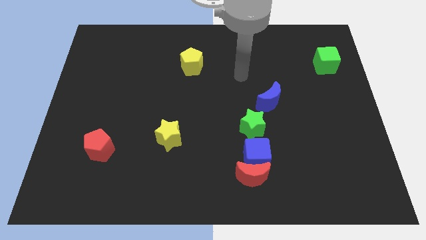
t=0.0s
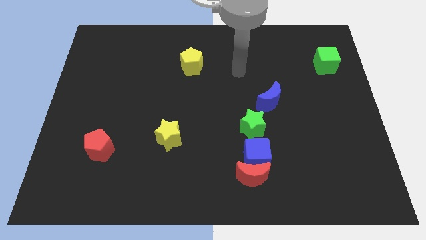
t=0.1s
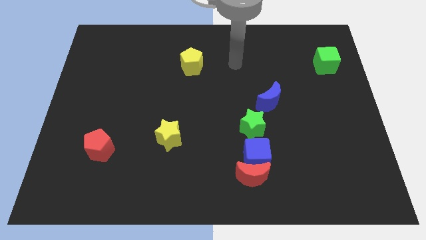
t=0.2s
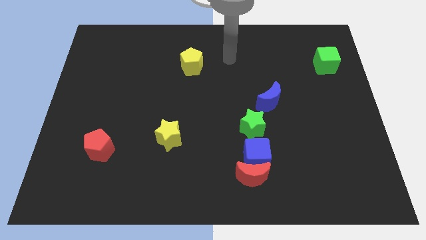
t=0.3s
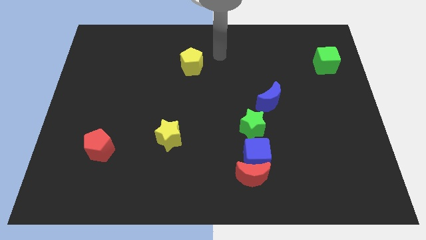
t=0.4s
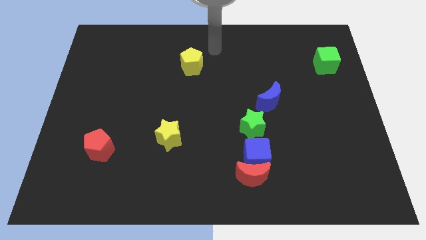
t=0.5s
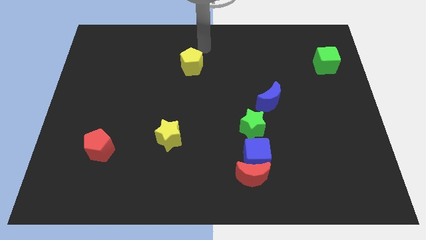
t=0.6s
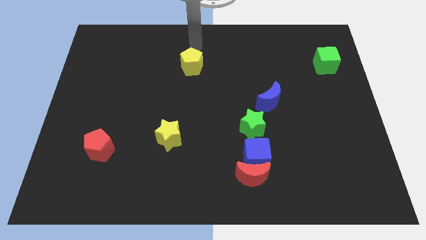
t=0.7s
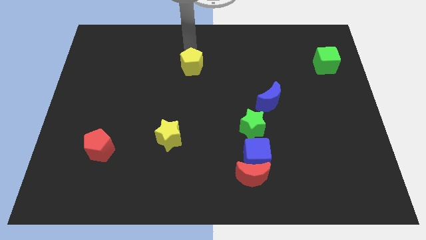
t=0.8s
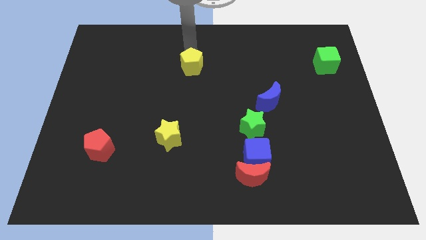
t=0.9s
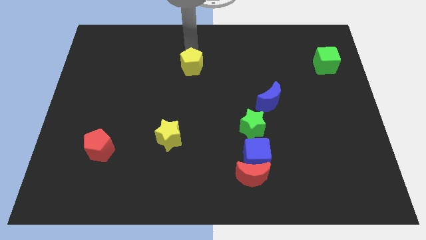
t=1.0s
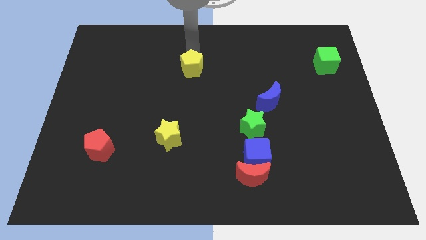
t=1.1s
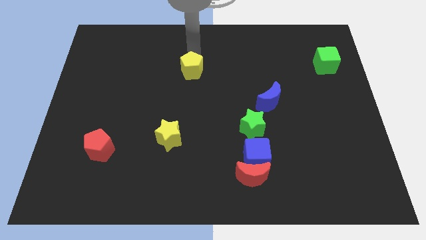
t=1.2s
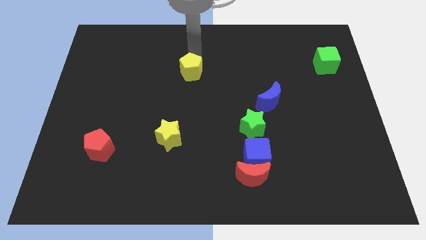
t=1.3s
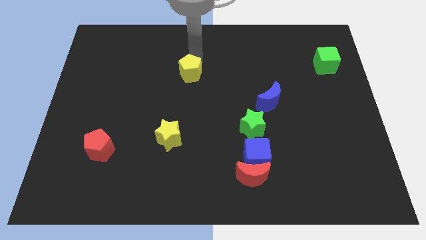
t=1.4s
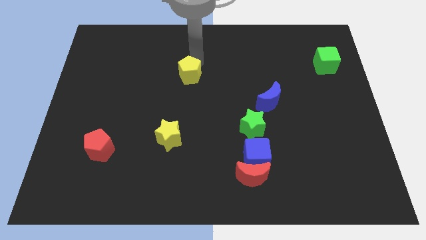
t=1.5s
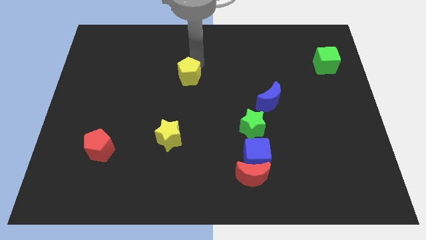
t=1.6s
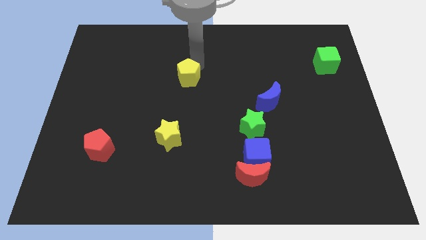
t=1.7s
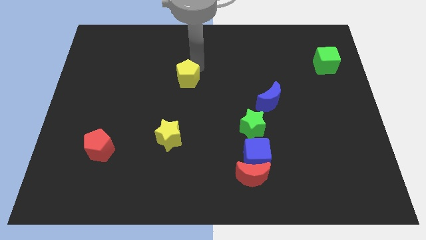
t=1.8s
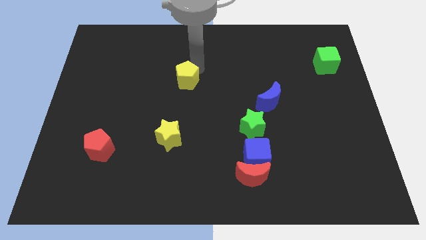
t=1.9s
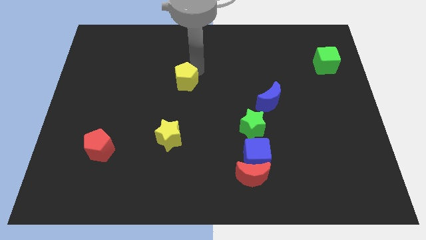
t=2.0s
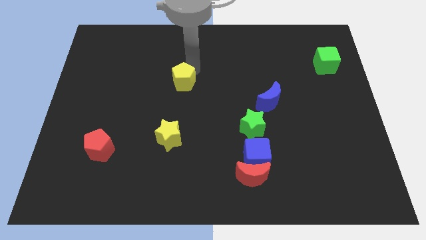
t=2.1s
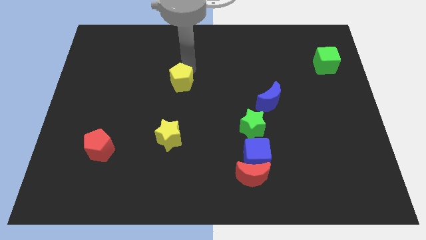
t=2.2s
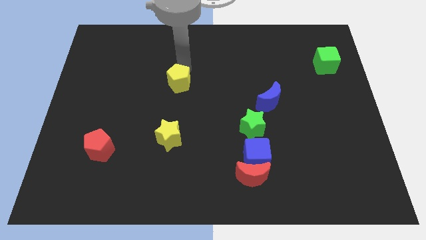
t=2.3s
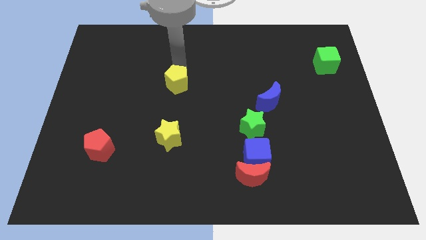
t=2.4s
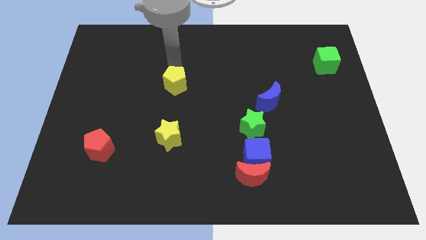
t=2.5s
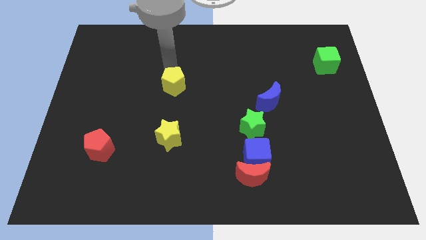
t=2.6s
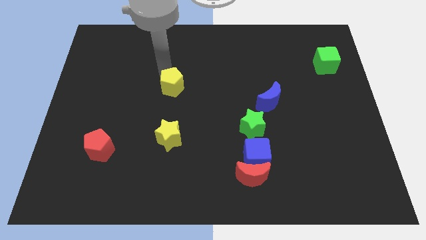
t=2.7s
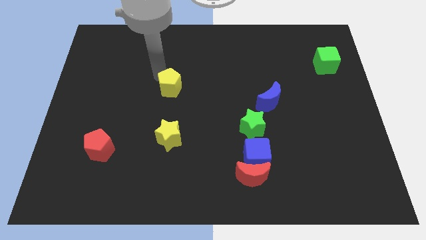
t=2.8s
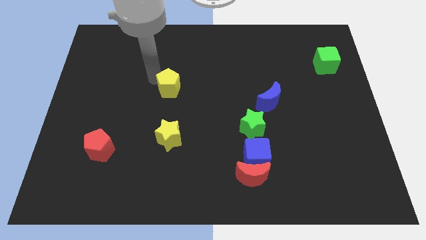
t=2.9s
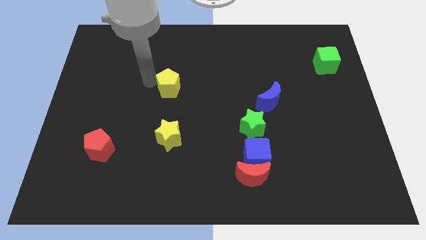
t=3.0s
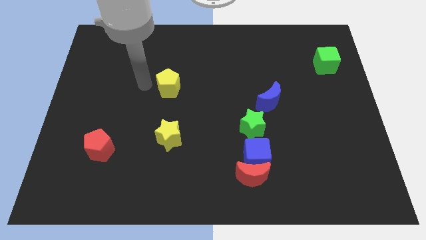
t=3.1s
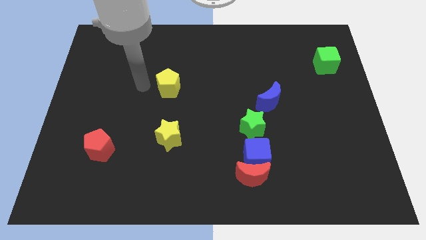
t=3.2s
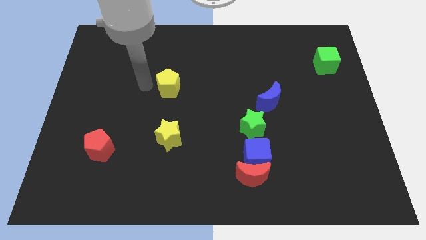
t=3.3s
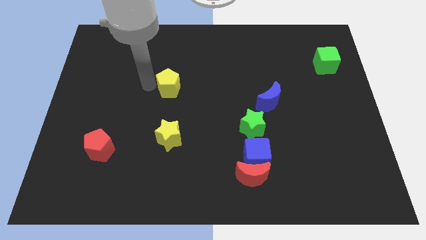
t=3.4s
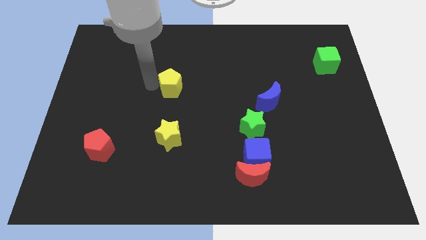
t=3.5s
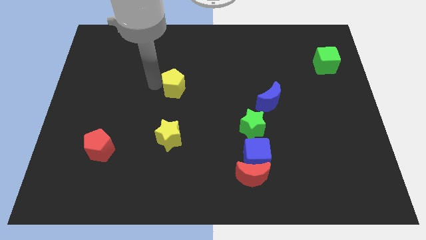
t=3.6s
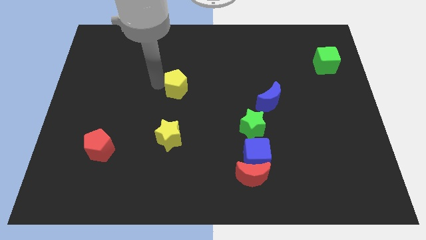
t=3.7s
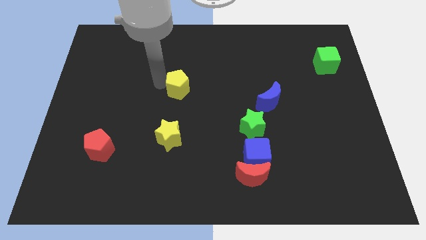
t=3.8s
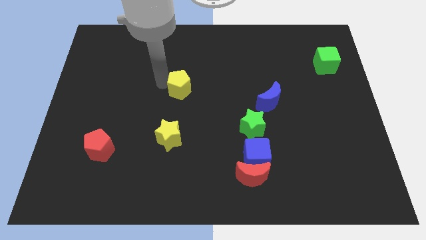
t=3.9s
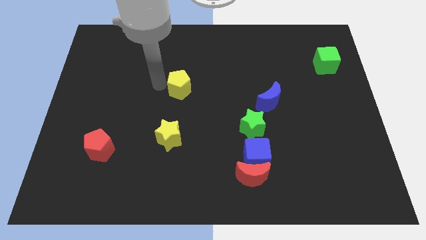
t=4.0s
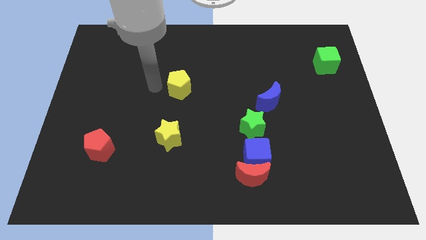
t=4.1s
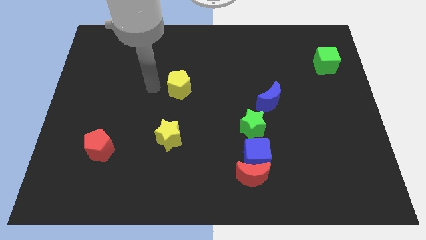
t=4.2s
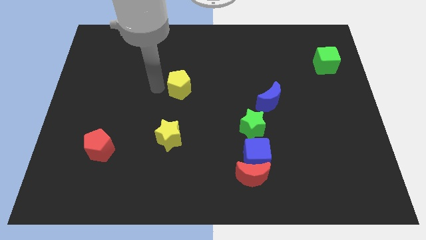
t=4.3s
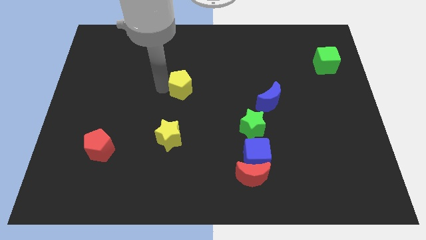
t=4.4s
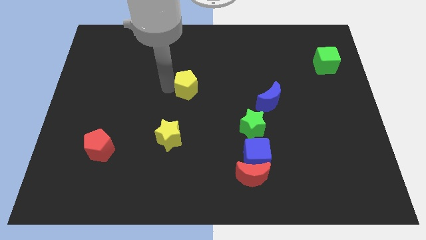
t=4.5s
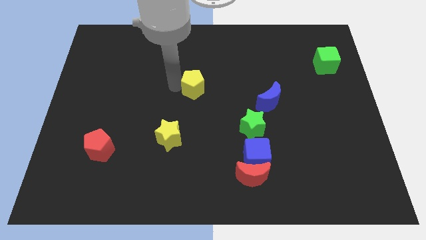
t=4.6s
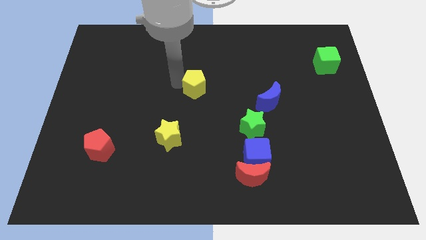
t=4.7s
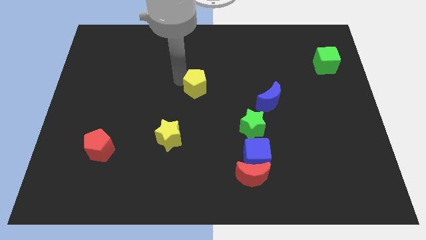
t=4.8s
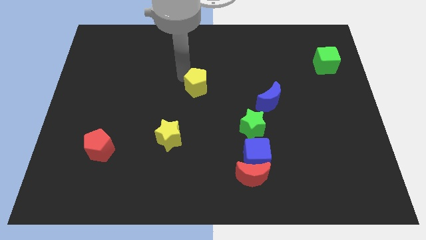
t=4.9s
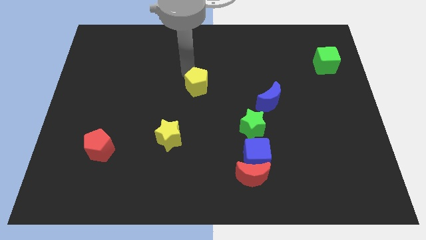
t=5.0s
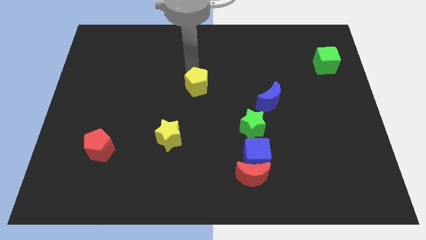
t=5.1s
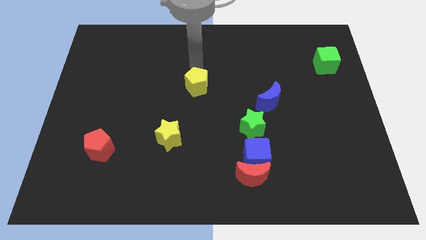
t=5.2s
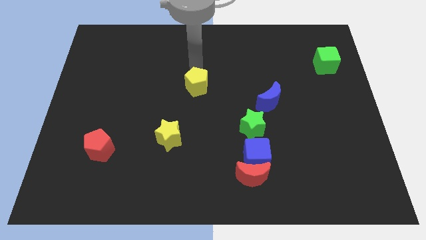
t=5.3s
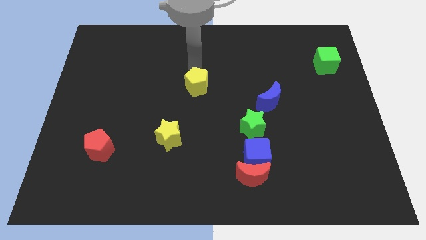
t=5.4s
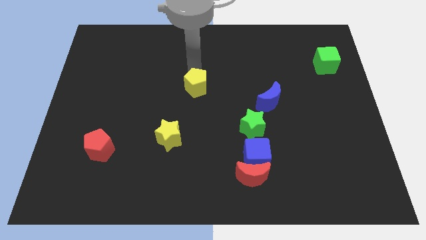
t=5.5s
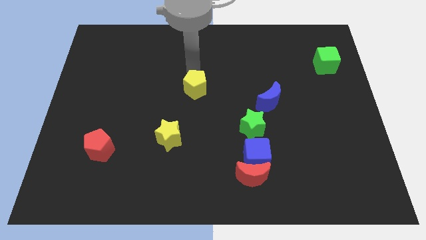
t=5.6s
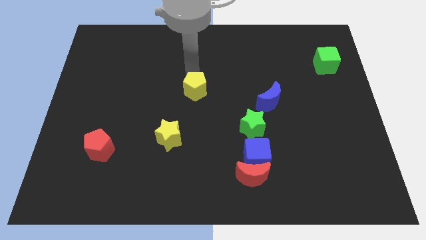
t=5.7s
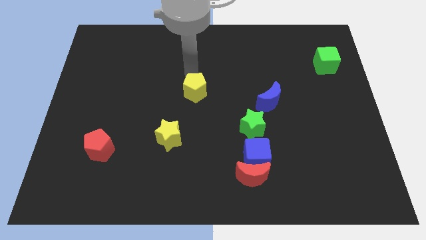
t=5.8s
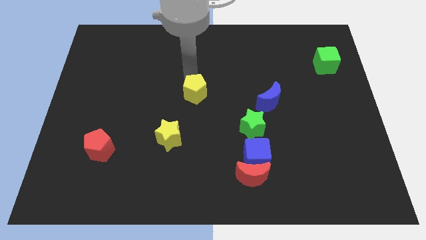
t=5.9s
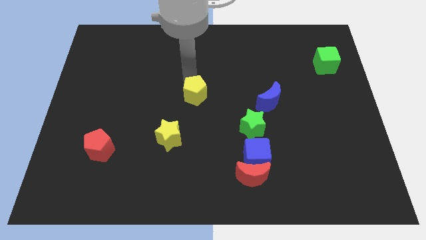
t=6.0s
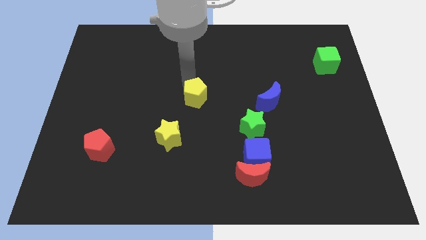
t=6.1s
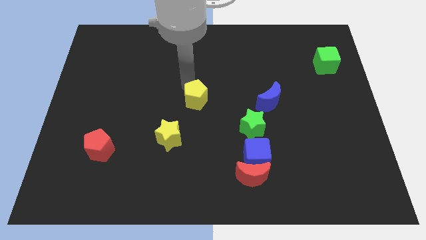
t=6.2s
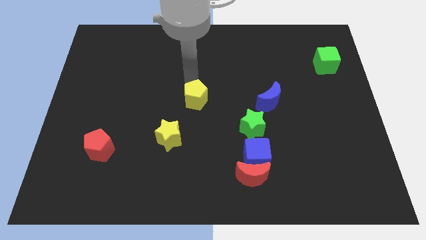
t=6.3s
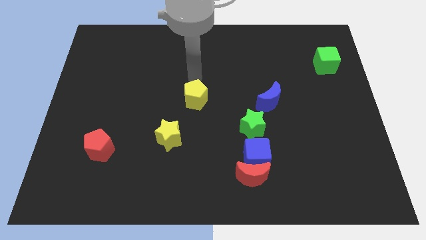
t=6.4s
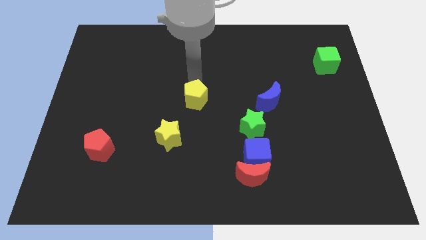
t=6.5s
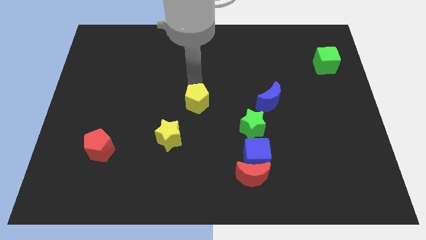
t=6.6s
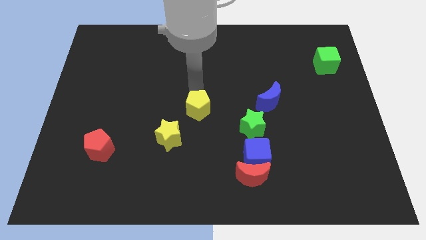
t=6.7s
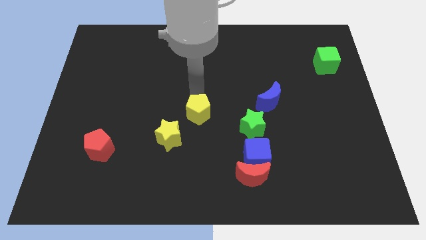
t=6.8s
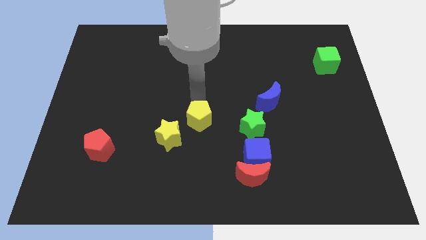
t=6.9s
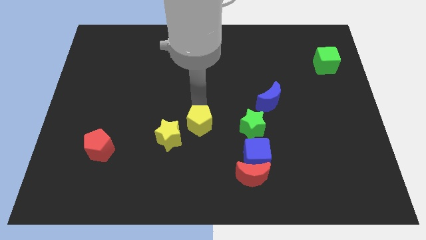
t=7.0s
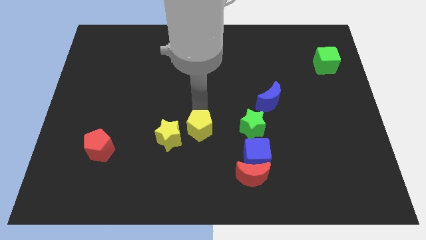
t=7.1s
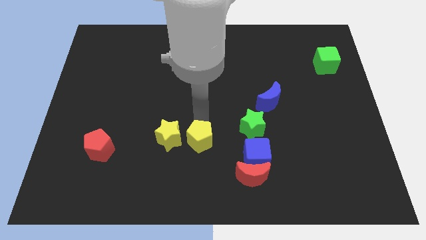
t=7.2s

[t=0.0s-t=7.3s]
push the yellow pentagon down

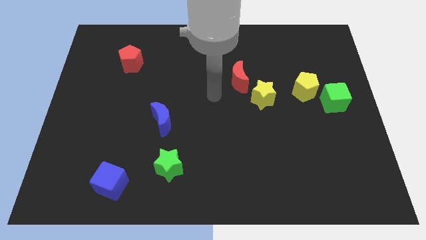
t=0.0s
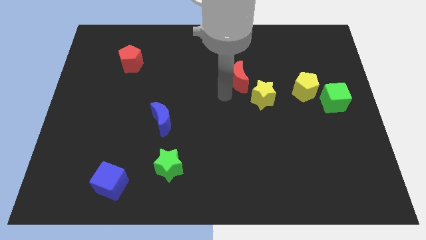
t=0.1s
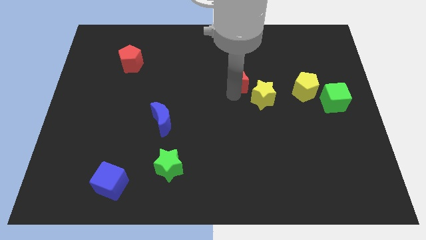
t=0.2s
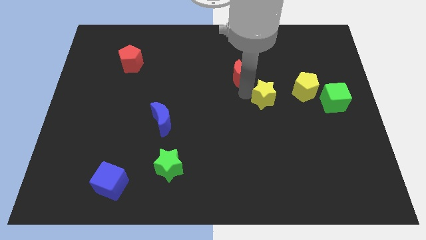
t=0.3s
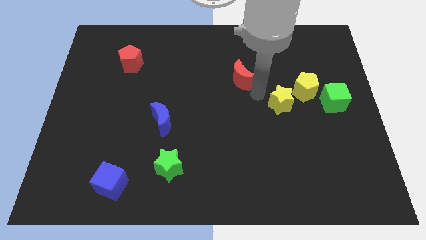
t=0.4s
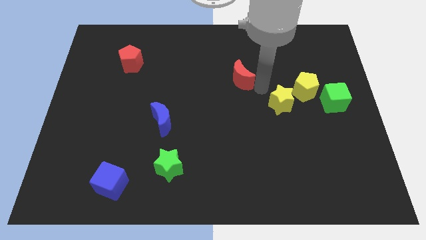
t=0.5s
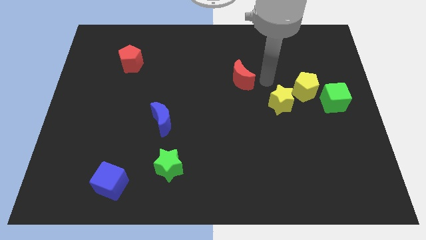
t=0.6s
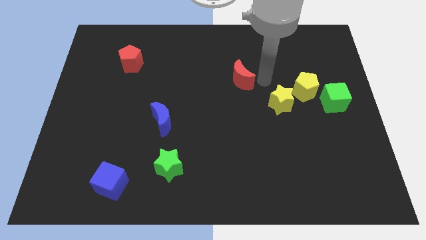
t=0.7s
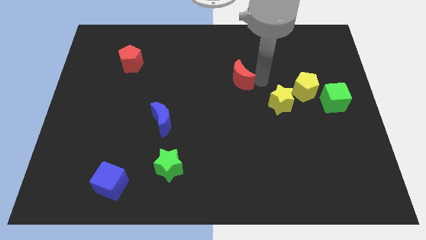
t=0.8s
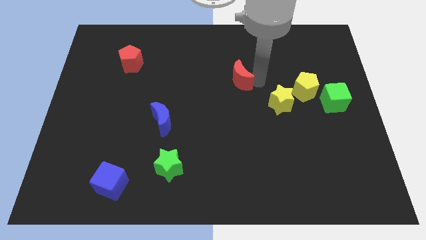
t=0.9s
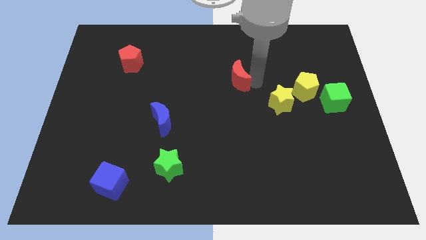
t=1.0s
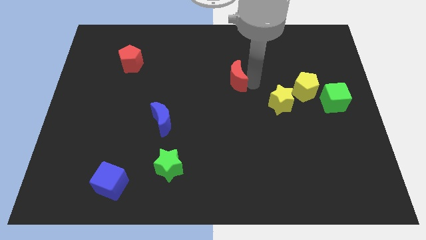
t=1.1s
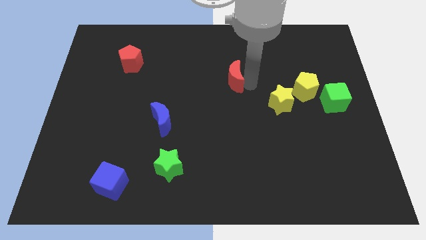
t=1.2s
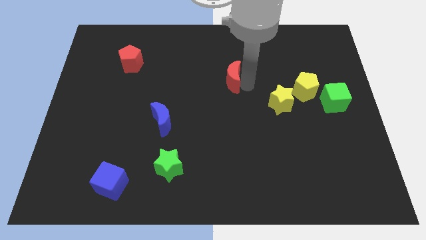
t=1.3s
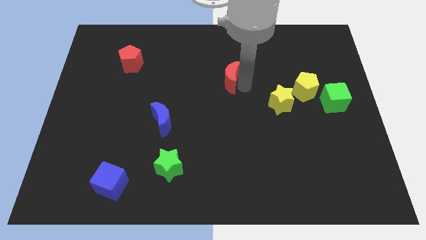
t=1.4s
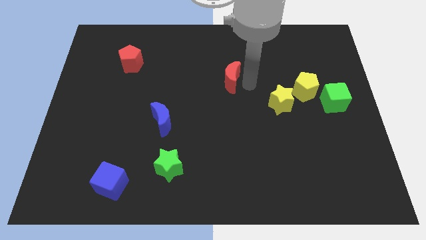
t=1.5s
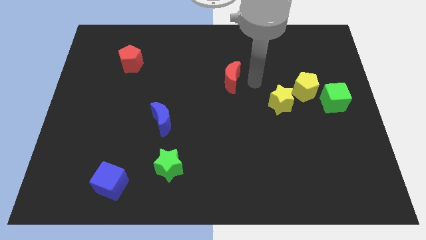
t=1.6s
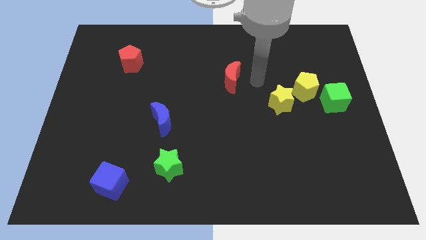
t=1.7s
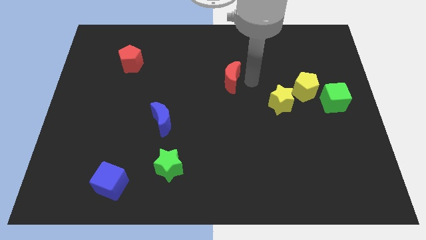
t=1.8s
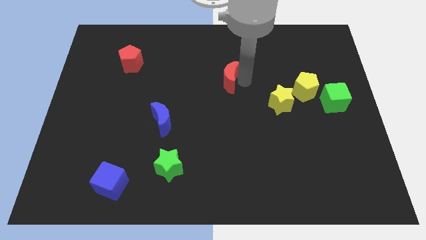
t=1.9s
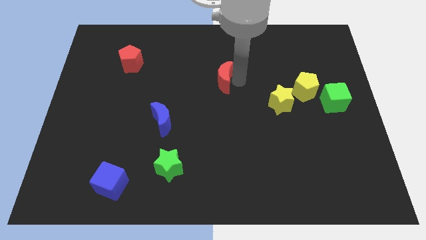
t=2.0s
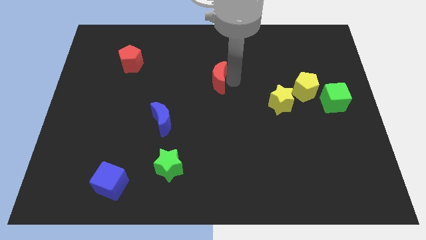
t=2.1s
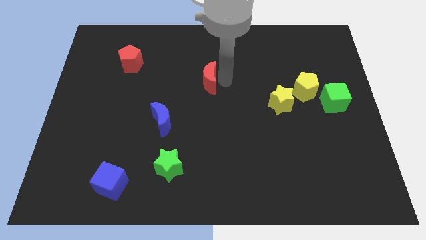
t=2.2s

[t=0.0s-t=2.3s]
slide the red moon to the left a little
